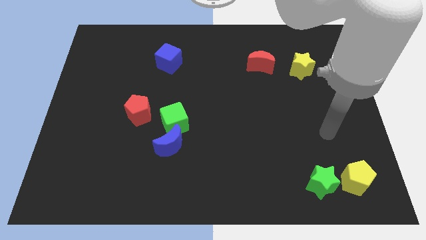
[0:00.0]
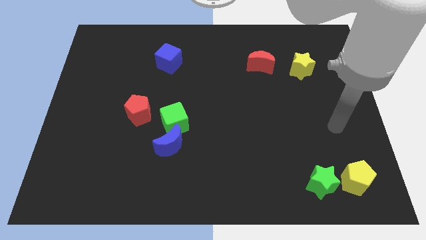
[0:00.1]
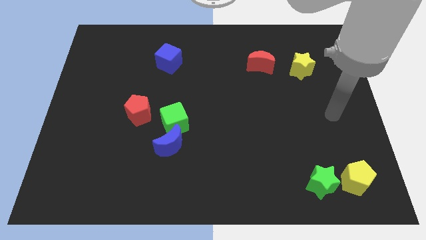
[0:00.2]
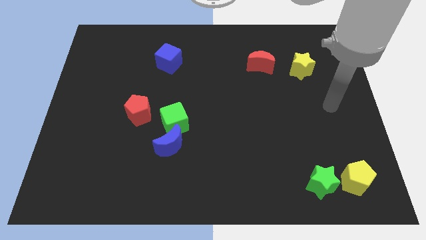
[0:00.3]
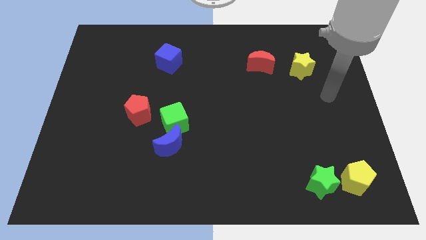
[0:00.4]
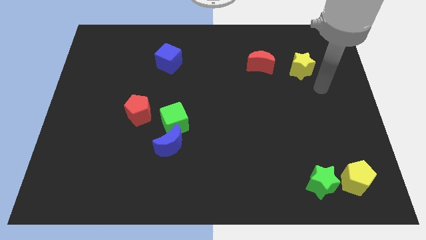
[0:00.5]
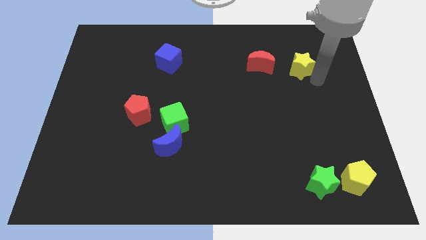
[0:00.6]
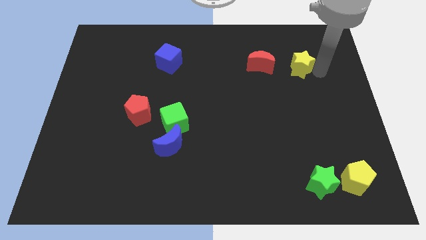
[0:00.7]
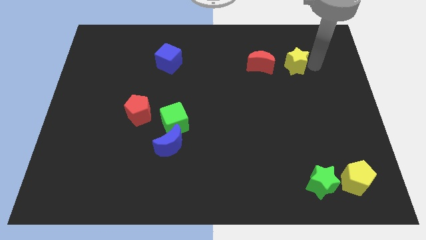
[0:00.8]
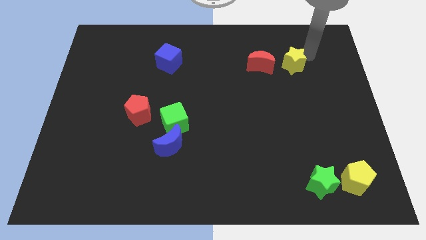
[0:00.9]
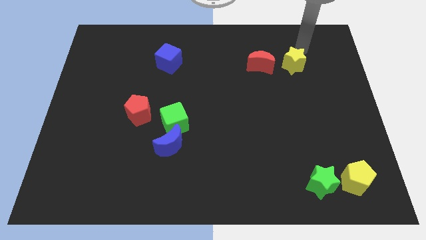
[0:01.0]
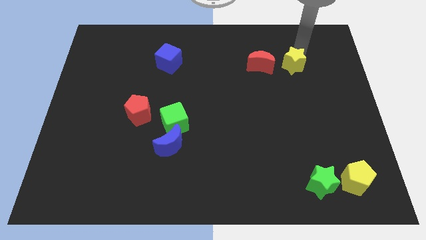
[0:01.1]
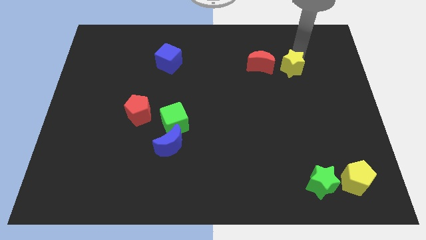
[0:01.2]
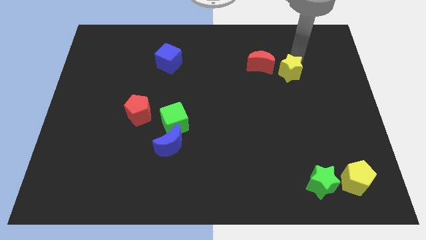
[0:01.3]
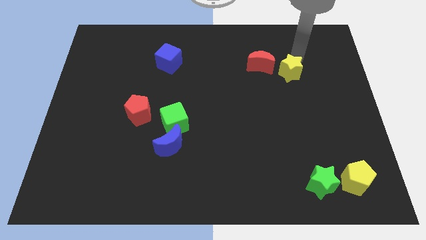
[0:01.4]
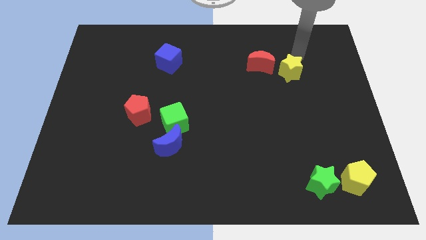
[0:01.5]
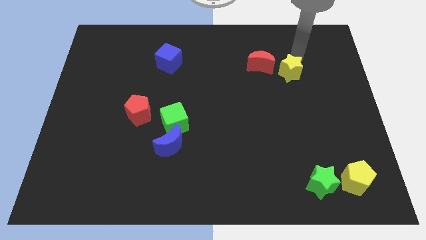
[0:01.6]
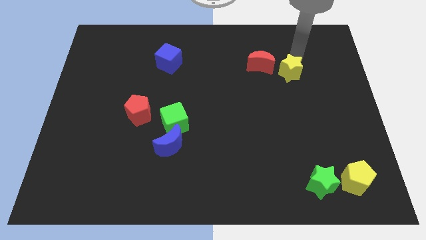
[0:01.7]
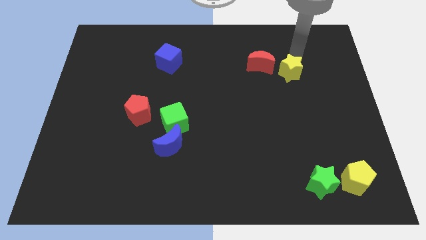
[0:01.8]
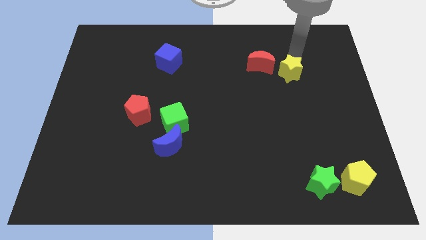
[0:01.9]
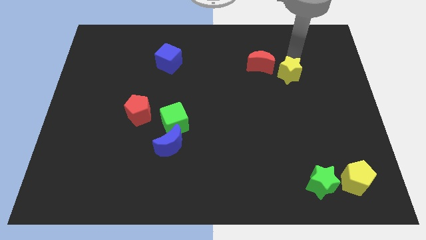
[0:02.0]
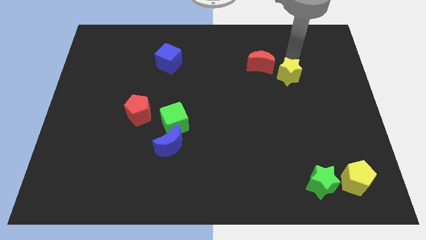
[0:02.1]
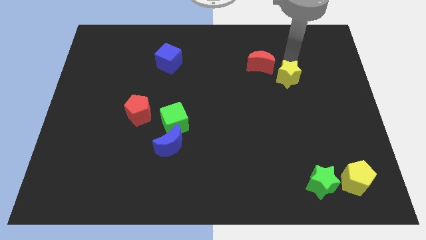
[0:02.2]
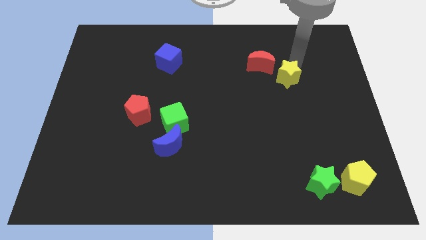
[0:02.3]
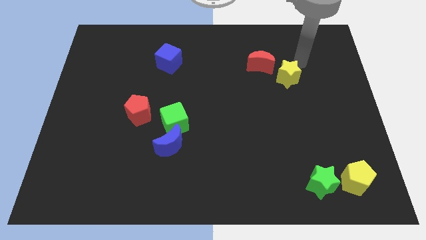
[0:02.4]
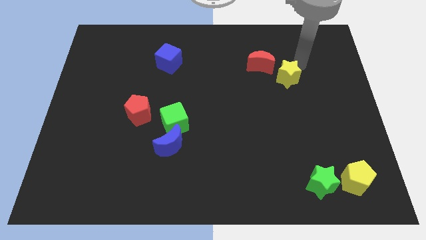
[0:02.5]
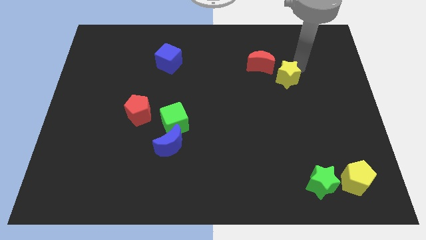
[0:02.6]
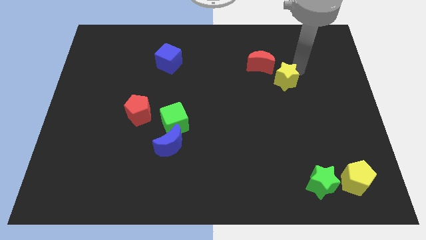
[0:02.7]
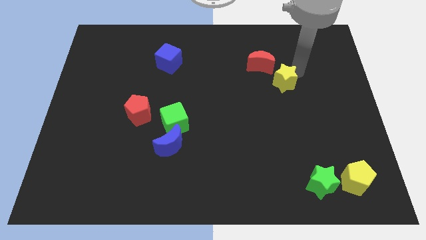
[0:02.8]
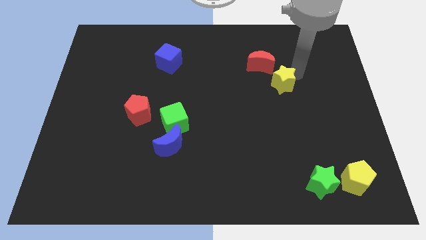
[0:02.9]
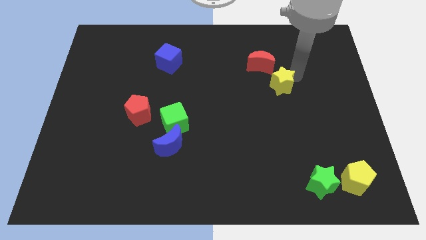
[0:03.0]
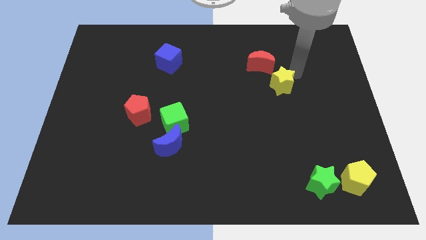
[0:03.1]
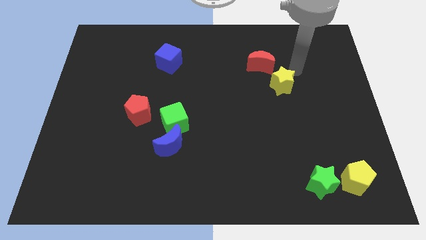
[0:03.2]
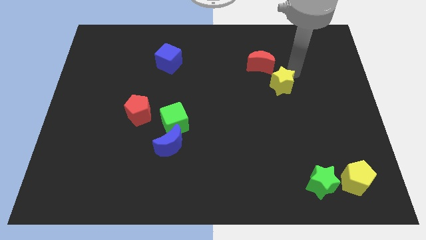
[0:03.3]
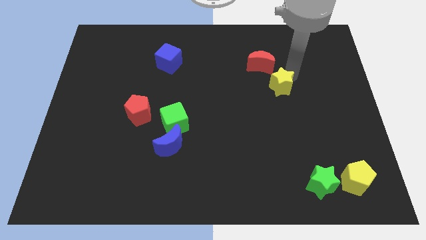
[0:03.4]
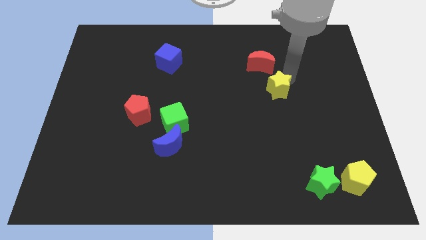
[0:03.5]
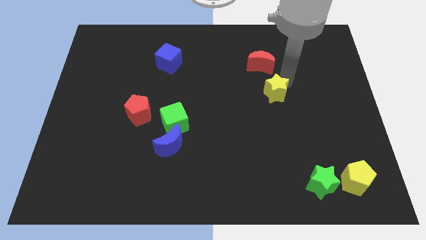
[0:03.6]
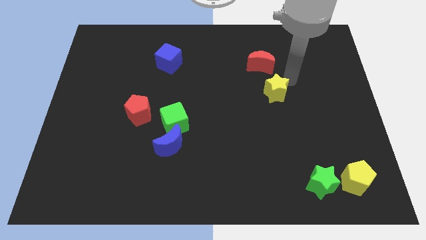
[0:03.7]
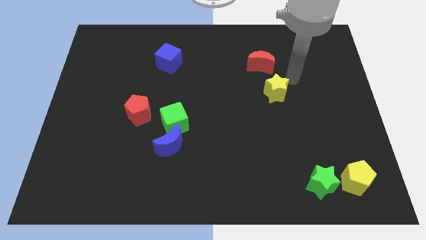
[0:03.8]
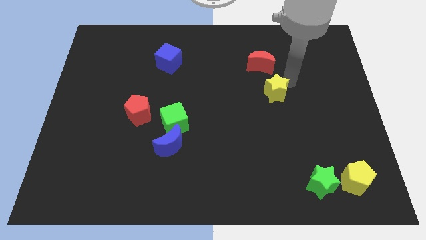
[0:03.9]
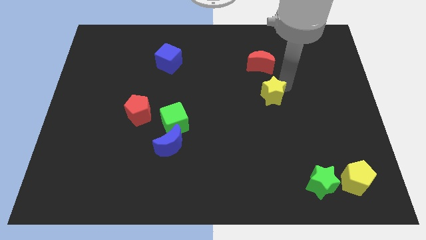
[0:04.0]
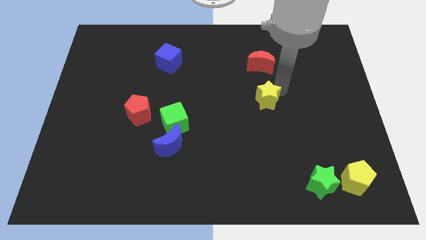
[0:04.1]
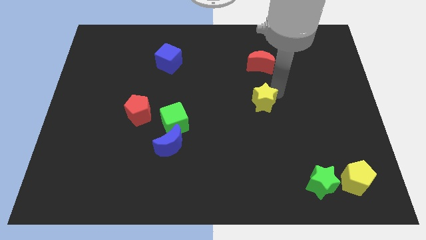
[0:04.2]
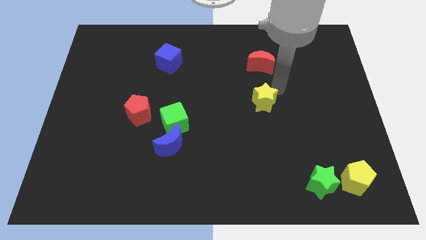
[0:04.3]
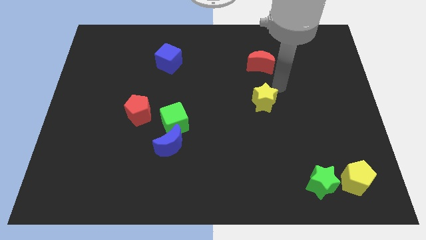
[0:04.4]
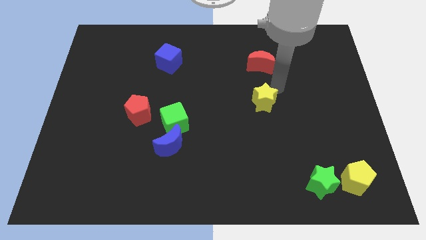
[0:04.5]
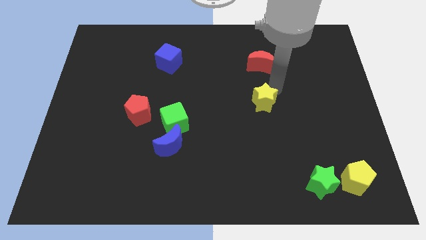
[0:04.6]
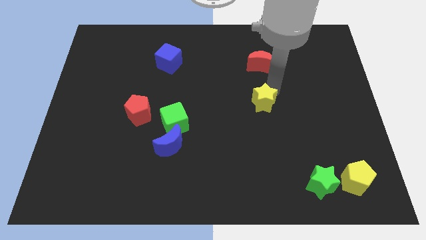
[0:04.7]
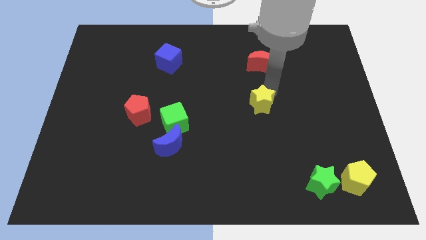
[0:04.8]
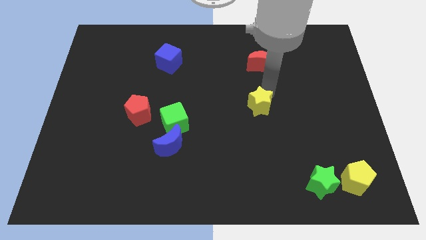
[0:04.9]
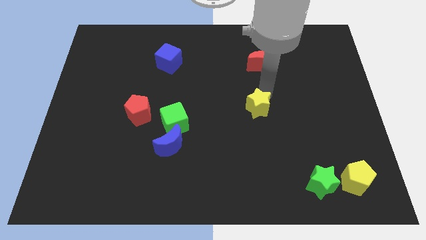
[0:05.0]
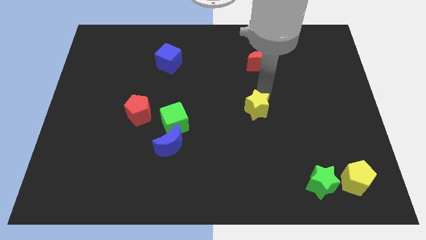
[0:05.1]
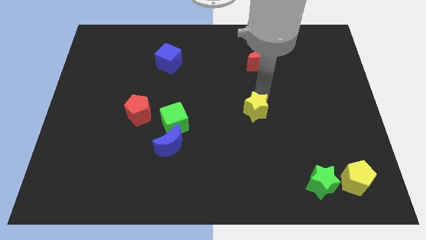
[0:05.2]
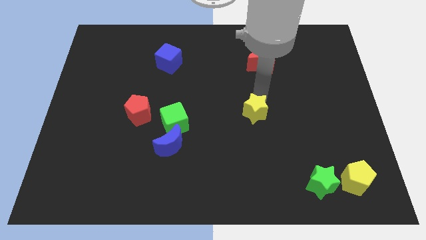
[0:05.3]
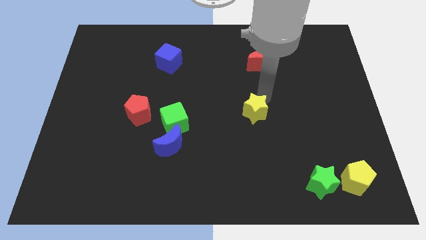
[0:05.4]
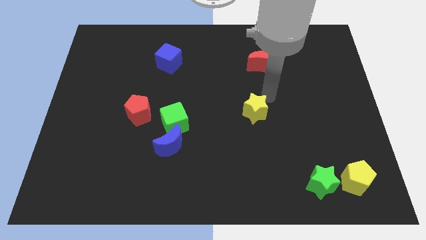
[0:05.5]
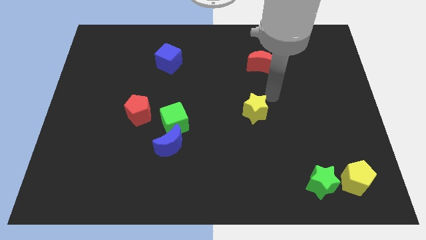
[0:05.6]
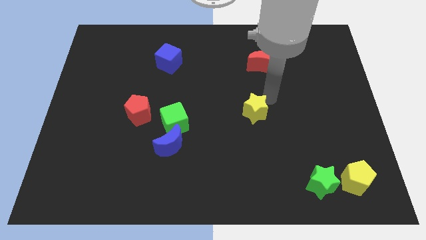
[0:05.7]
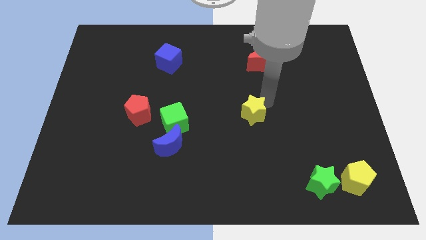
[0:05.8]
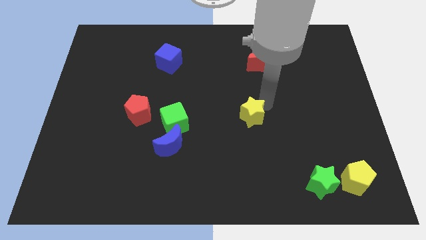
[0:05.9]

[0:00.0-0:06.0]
slide the yellow star down and then left

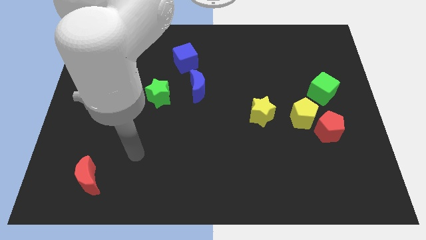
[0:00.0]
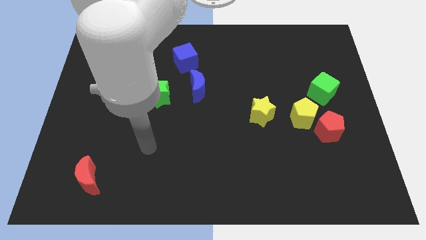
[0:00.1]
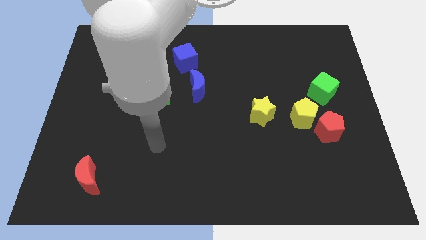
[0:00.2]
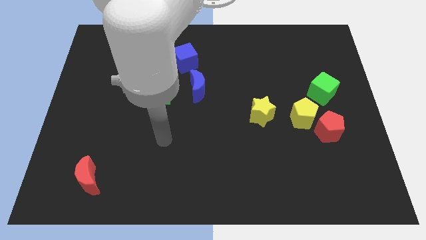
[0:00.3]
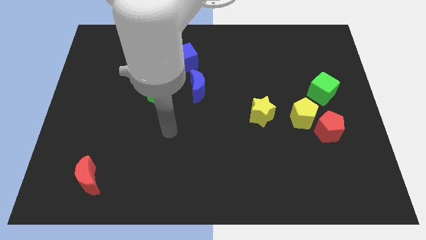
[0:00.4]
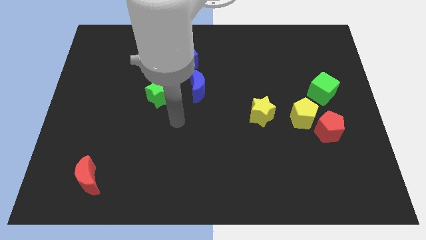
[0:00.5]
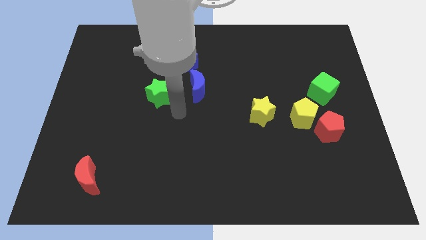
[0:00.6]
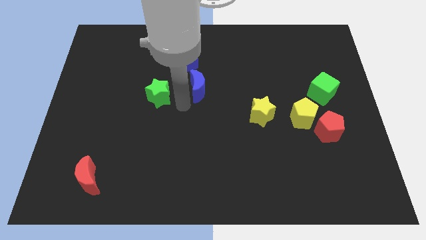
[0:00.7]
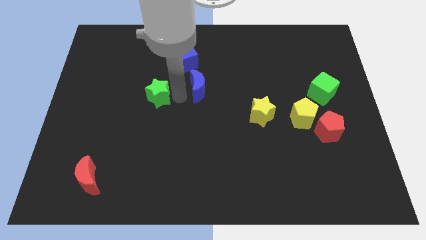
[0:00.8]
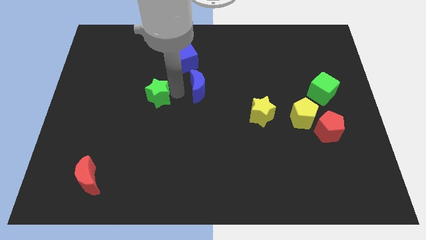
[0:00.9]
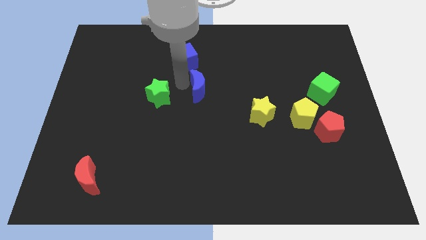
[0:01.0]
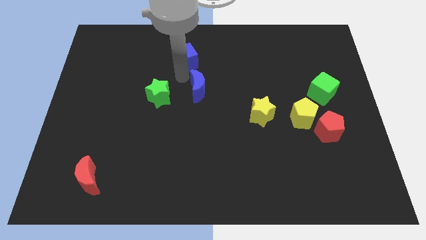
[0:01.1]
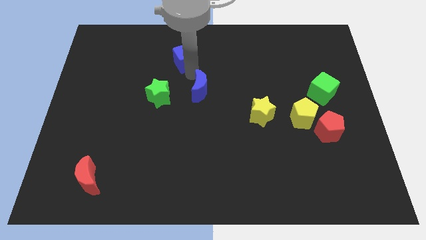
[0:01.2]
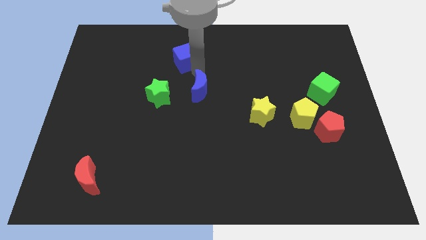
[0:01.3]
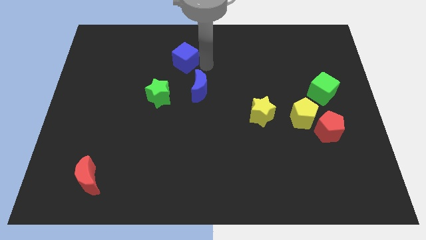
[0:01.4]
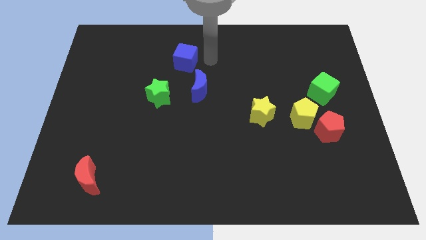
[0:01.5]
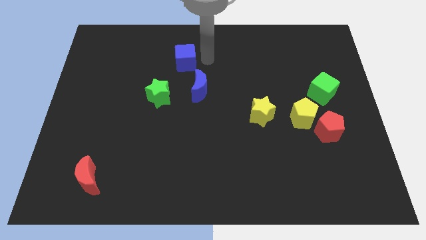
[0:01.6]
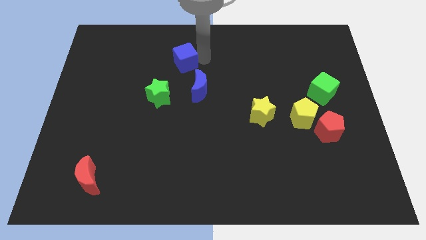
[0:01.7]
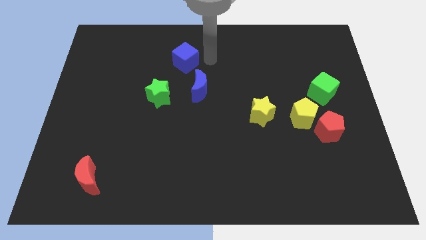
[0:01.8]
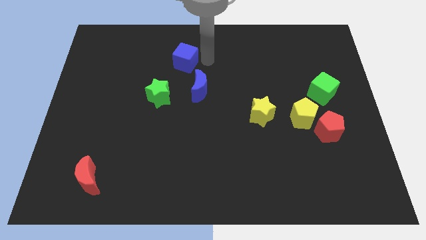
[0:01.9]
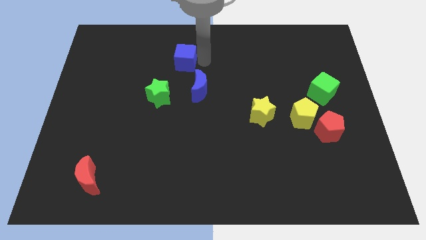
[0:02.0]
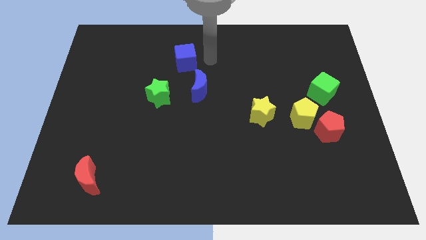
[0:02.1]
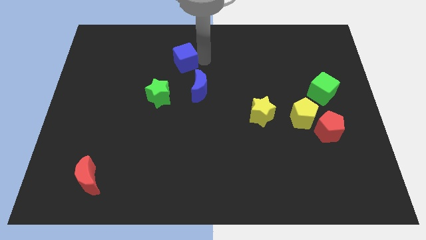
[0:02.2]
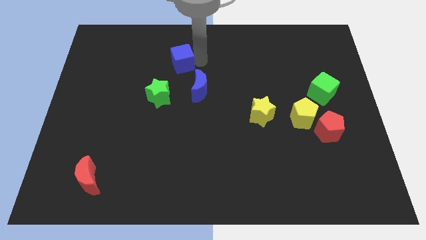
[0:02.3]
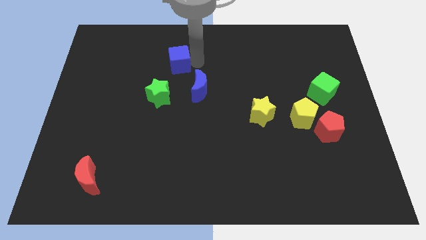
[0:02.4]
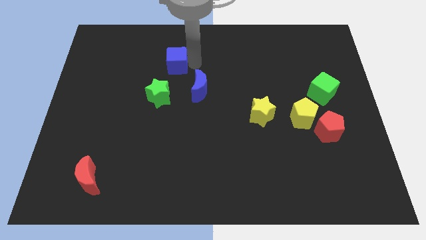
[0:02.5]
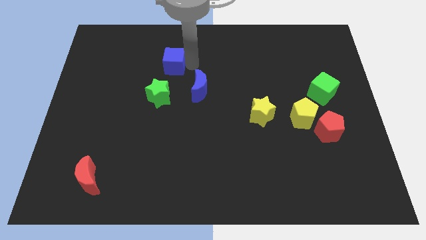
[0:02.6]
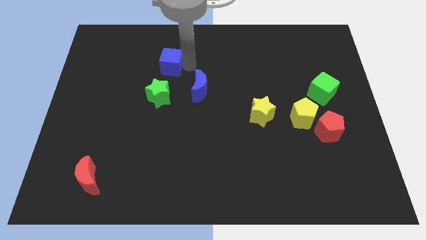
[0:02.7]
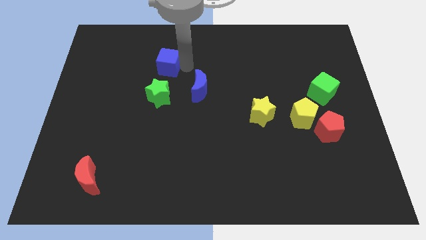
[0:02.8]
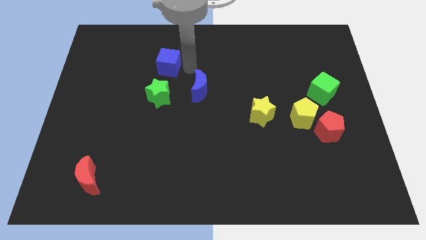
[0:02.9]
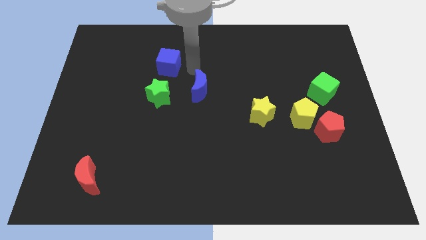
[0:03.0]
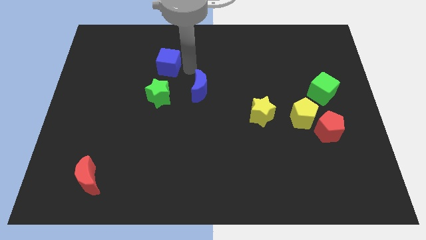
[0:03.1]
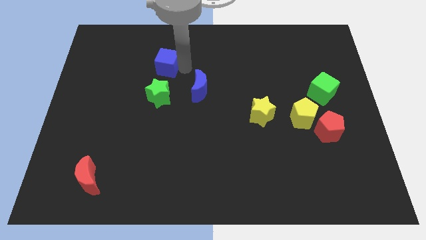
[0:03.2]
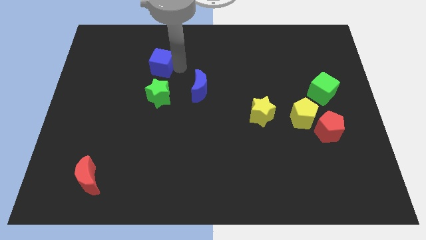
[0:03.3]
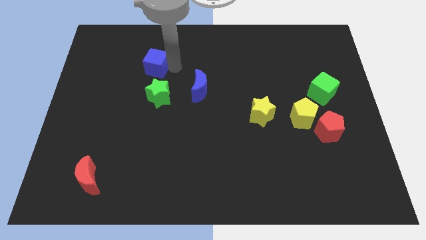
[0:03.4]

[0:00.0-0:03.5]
push the blue cube left slightly
